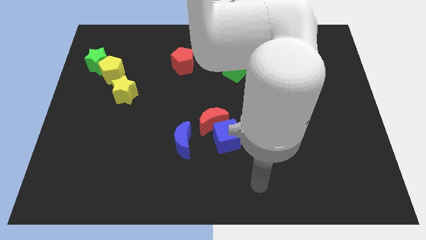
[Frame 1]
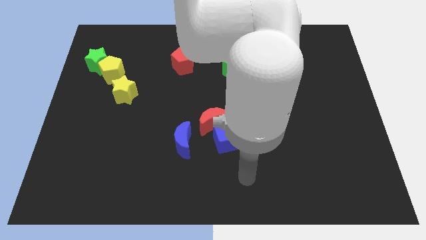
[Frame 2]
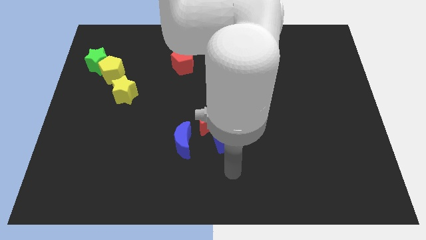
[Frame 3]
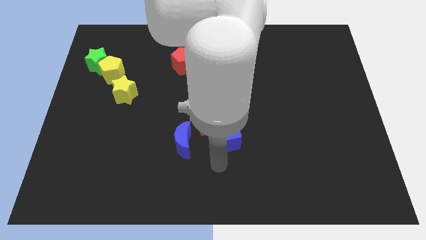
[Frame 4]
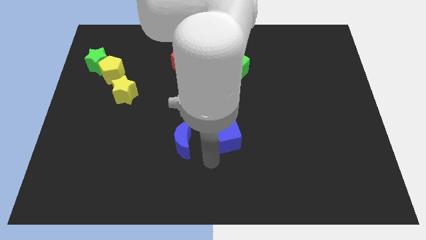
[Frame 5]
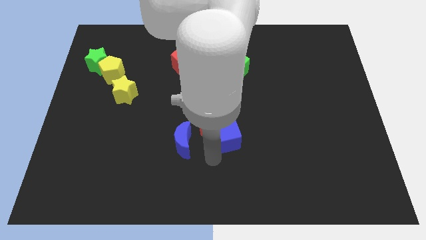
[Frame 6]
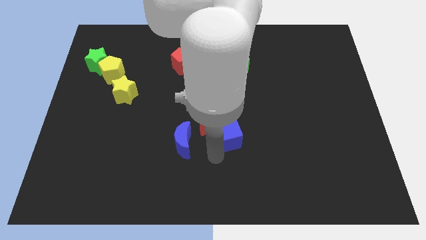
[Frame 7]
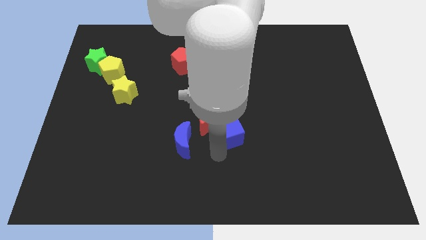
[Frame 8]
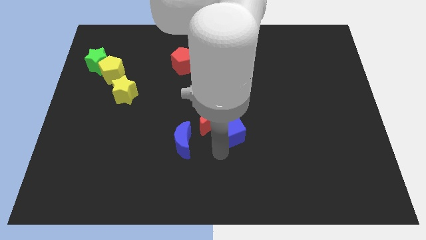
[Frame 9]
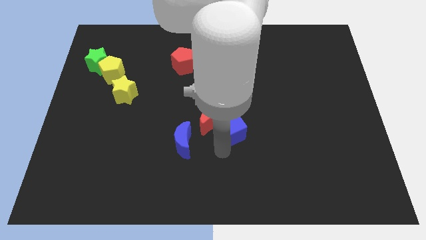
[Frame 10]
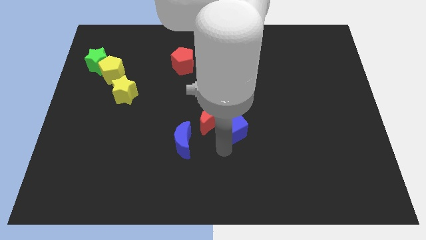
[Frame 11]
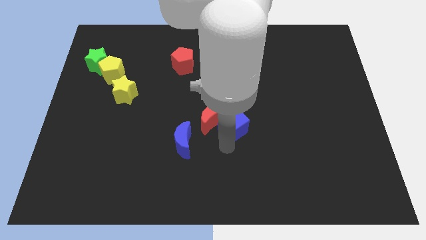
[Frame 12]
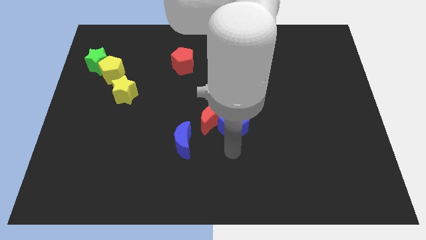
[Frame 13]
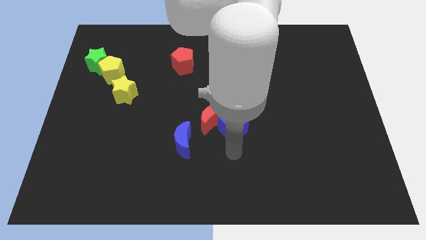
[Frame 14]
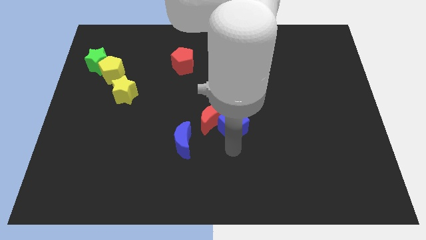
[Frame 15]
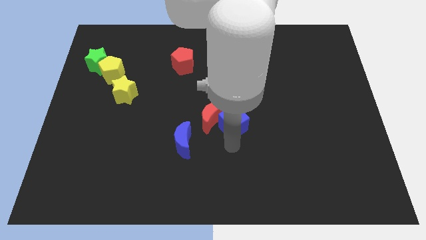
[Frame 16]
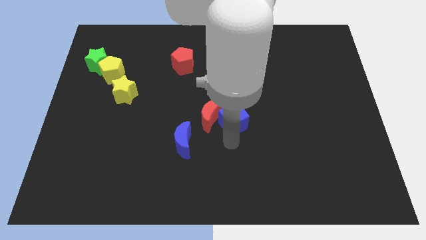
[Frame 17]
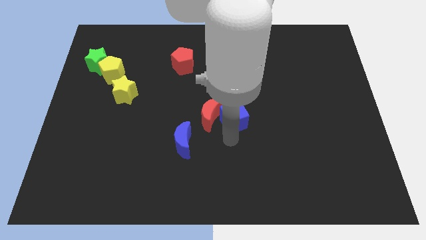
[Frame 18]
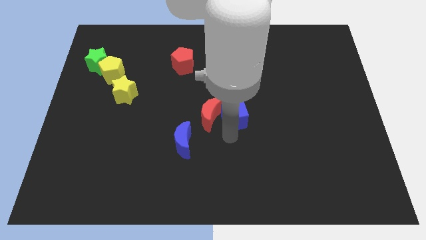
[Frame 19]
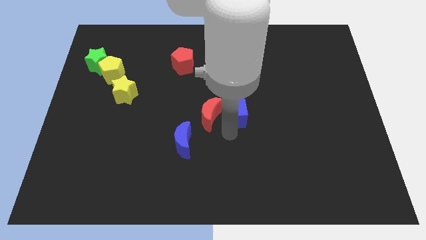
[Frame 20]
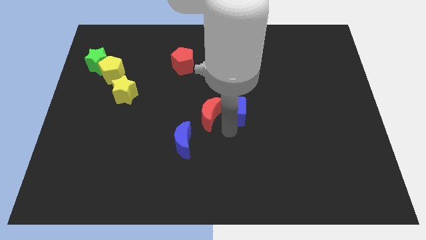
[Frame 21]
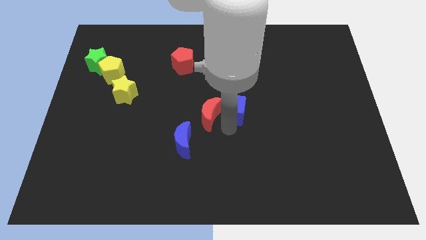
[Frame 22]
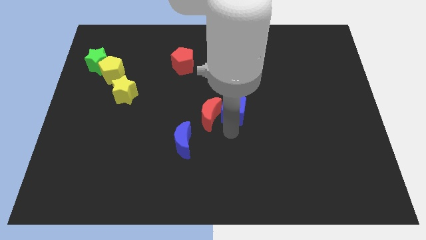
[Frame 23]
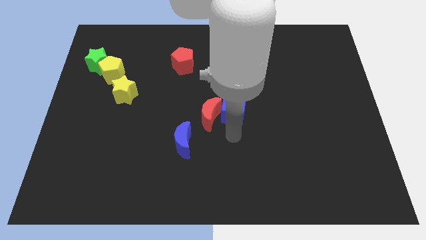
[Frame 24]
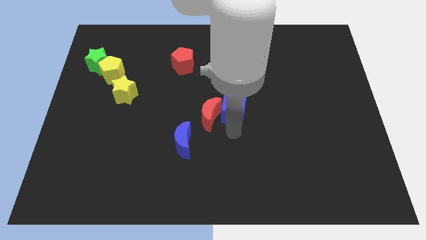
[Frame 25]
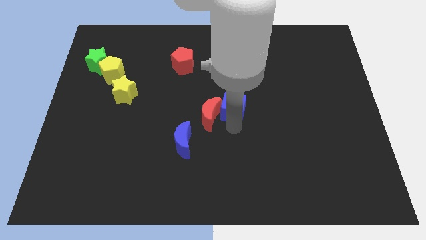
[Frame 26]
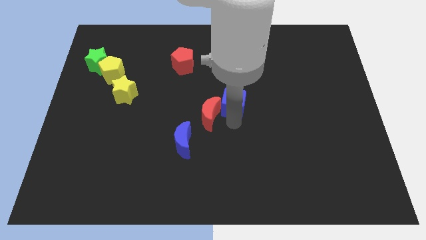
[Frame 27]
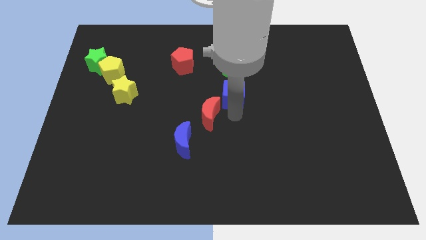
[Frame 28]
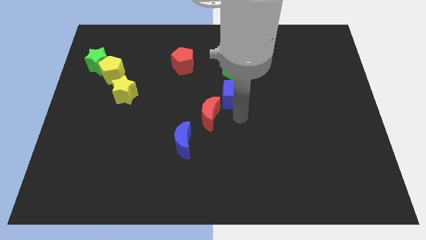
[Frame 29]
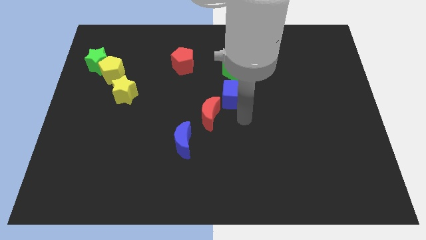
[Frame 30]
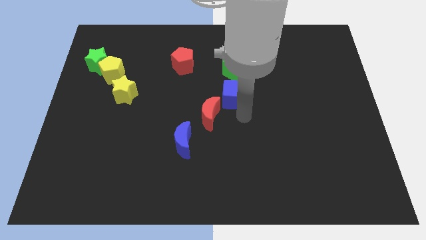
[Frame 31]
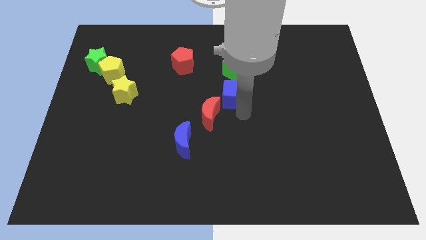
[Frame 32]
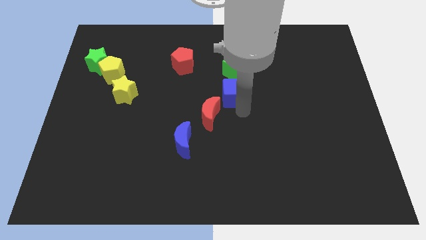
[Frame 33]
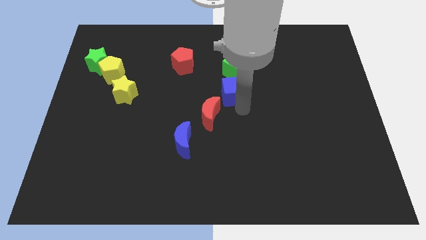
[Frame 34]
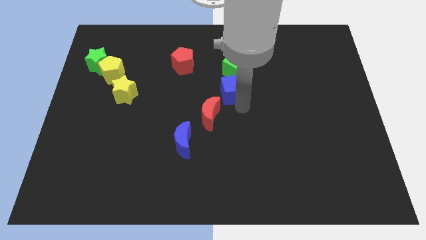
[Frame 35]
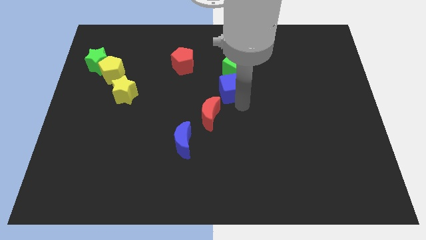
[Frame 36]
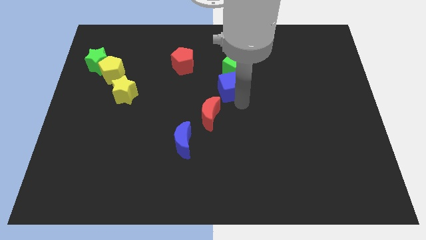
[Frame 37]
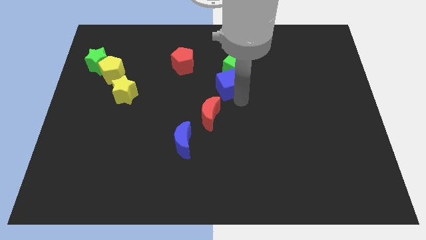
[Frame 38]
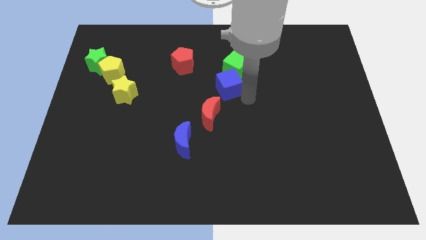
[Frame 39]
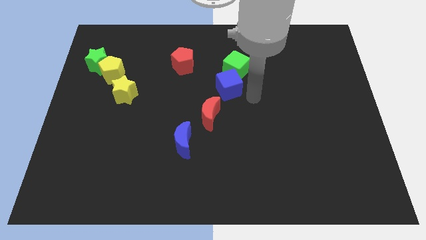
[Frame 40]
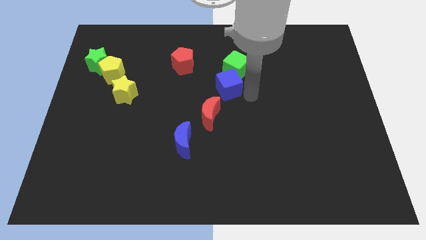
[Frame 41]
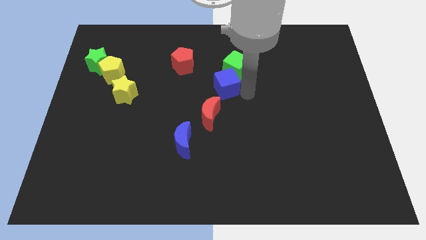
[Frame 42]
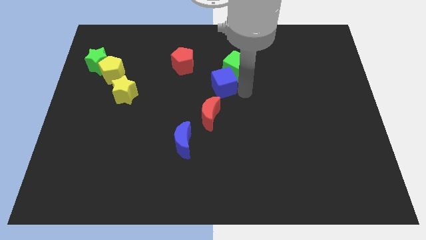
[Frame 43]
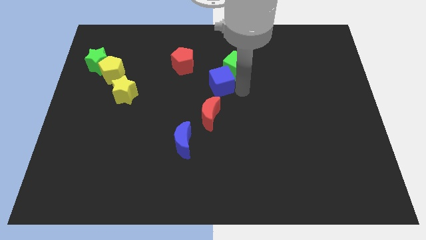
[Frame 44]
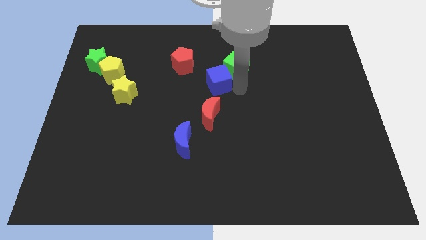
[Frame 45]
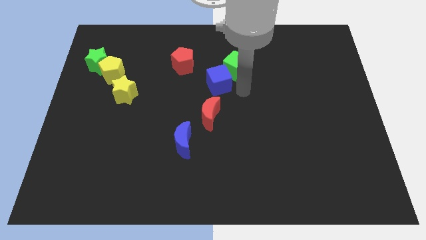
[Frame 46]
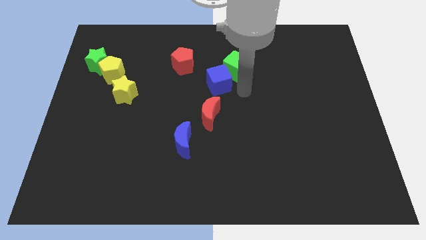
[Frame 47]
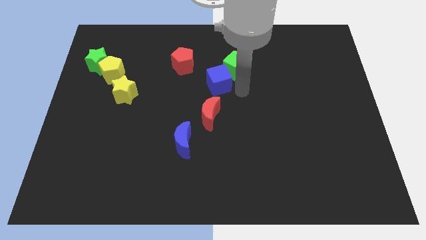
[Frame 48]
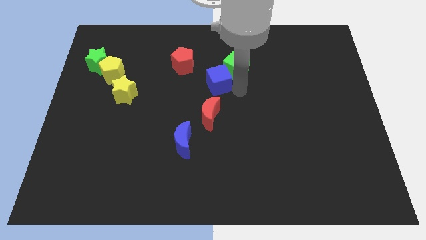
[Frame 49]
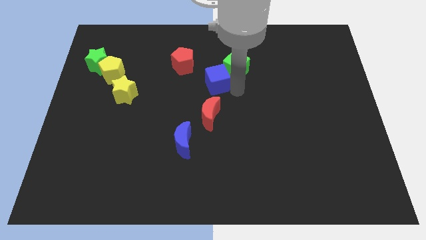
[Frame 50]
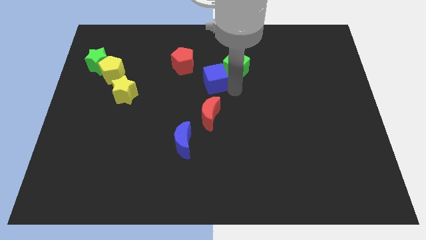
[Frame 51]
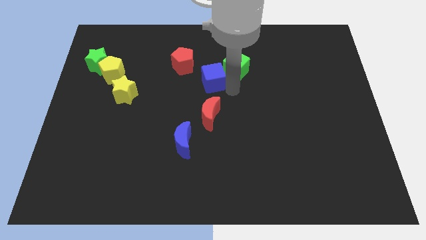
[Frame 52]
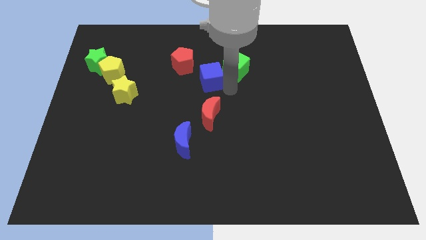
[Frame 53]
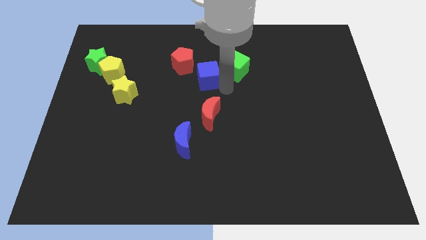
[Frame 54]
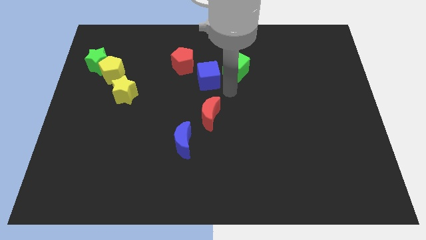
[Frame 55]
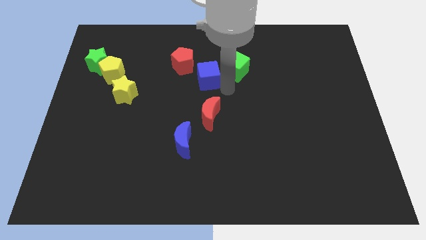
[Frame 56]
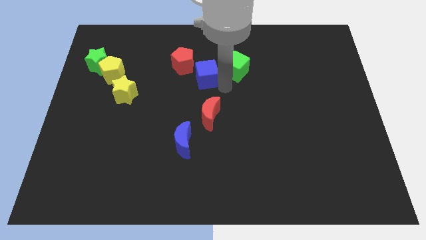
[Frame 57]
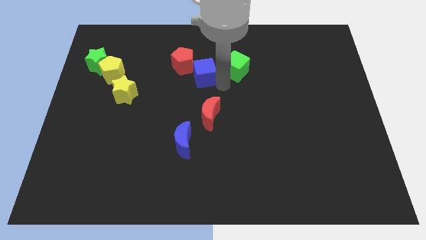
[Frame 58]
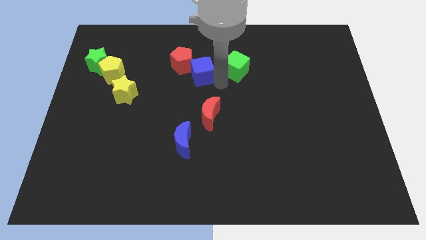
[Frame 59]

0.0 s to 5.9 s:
slide the blue cube next to the red pentagon
